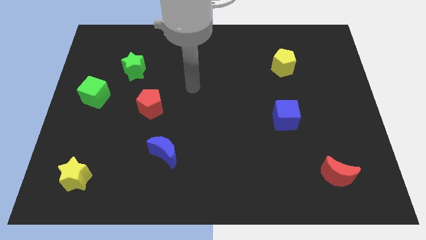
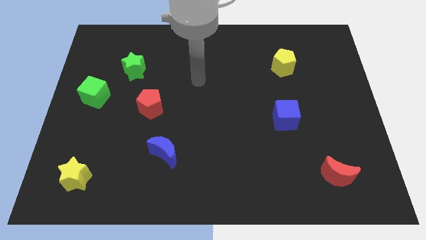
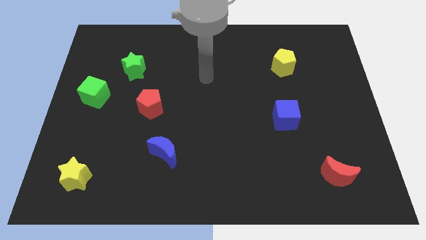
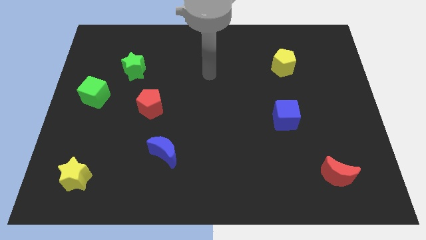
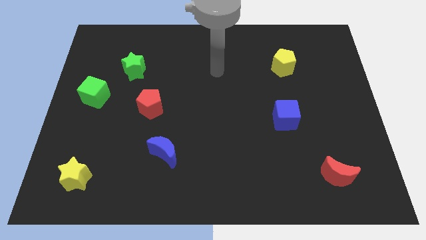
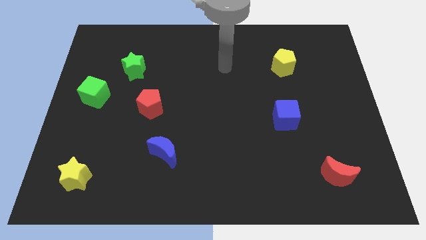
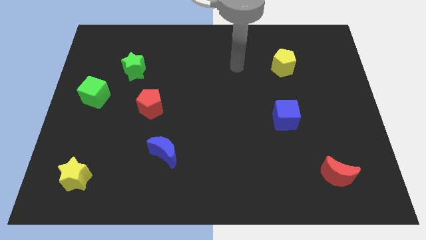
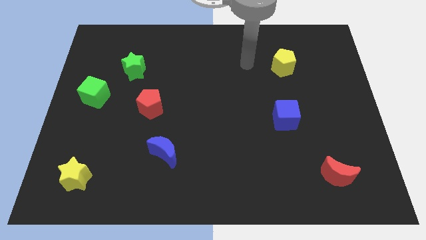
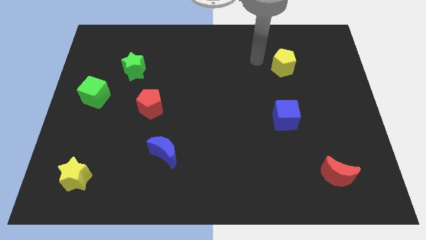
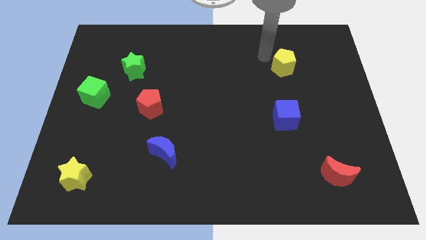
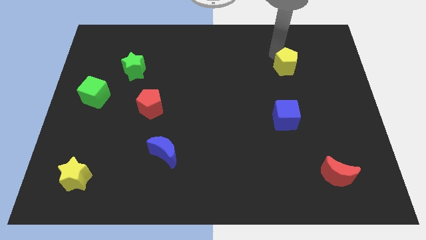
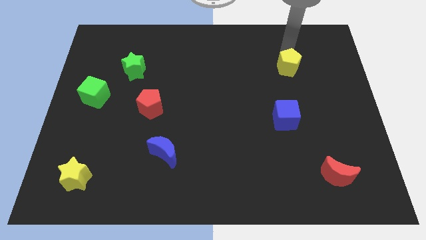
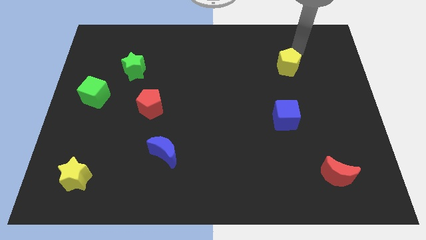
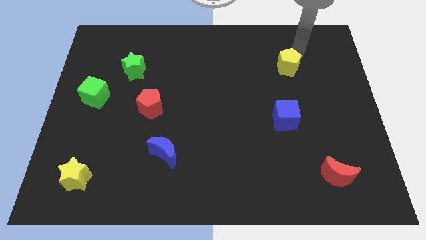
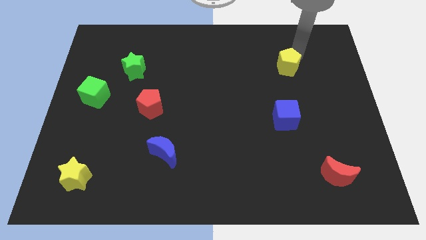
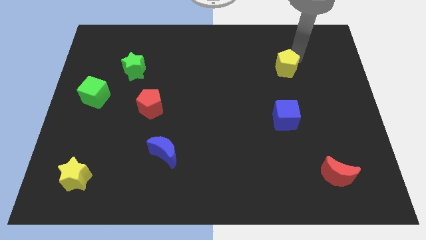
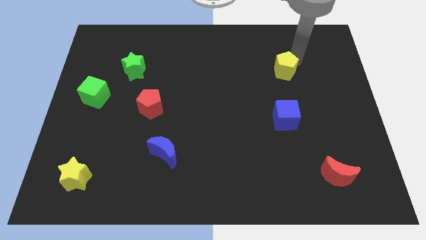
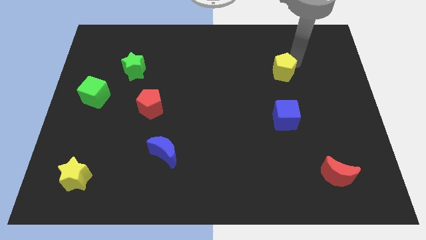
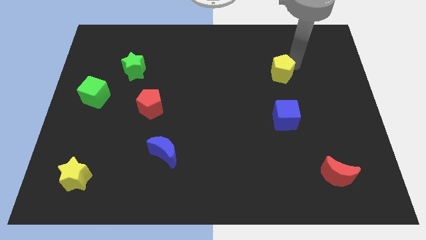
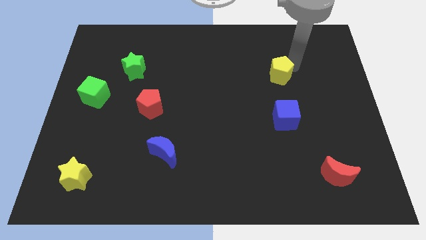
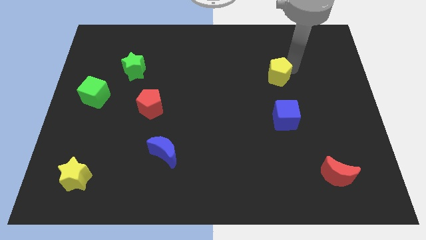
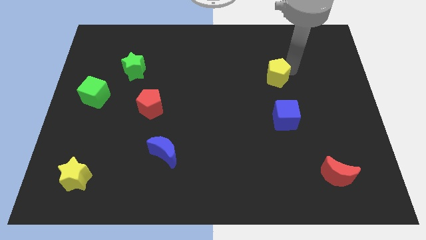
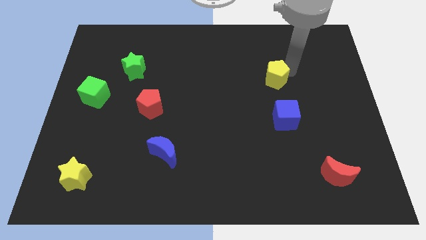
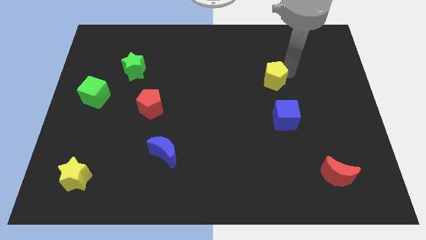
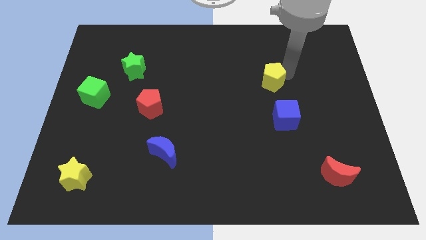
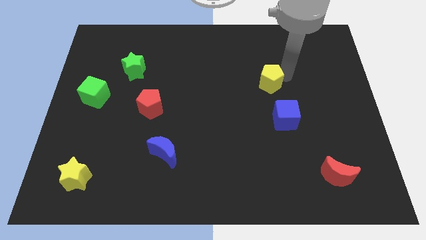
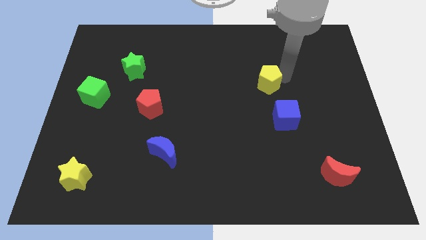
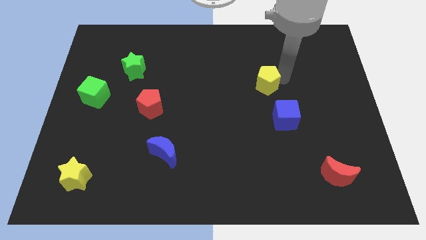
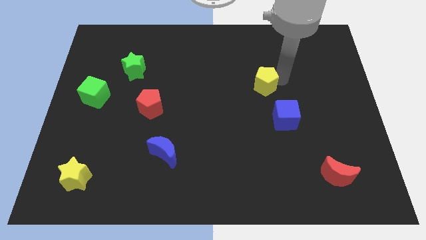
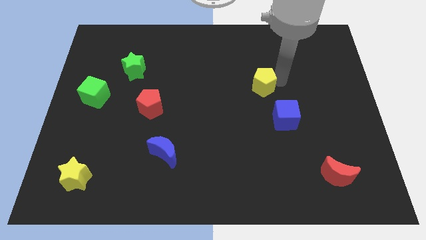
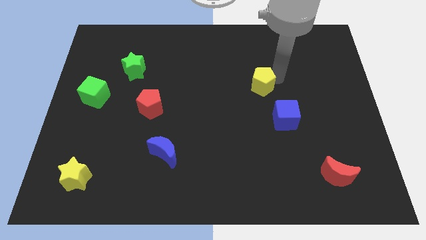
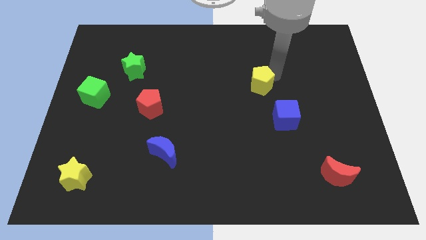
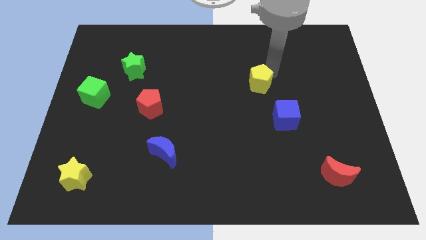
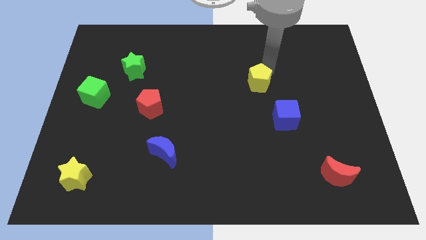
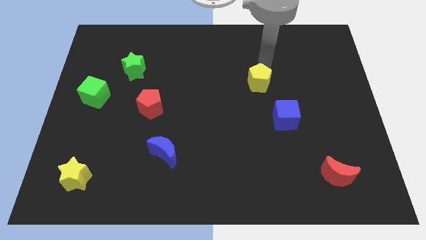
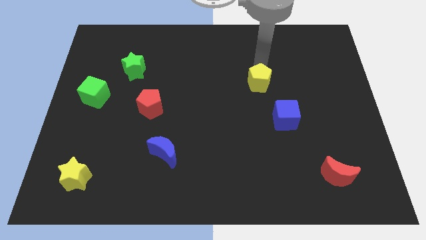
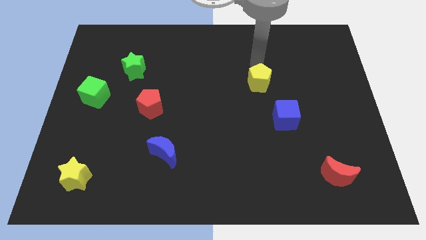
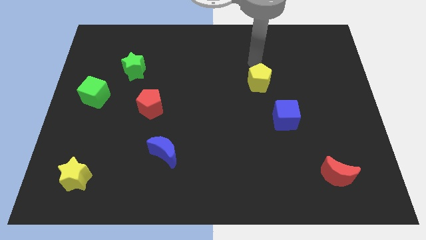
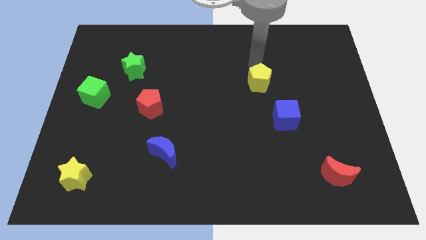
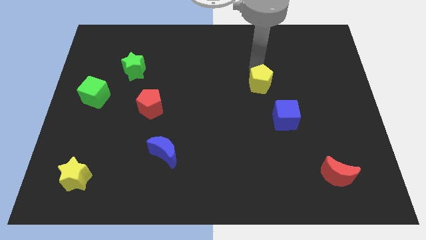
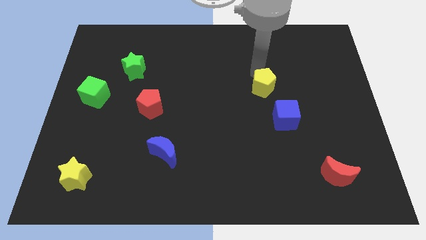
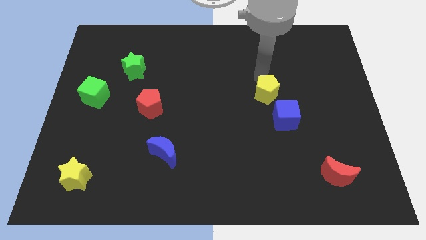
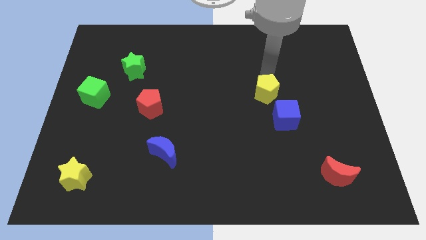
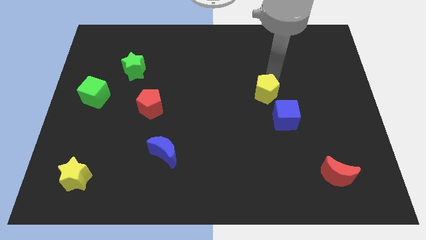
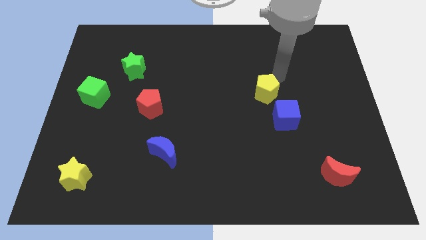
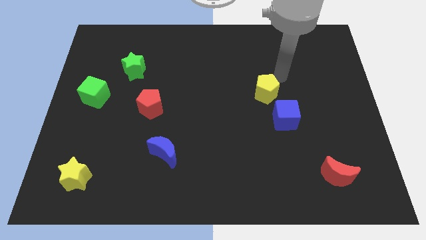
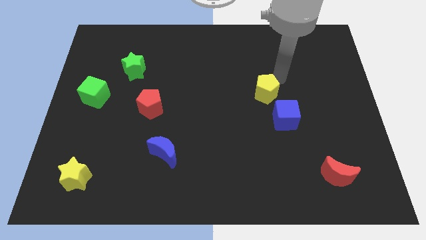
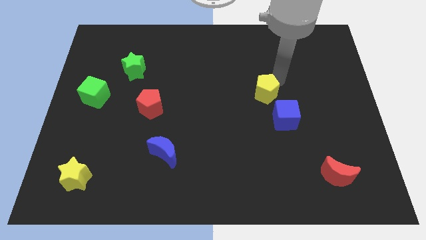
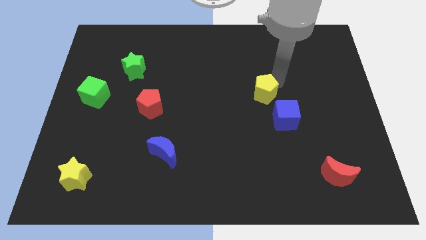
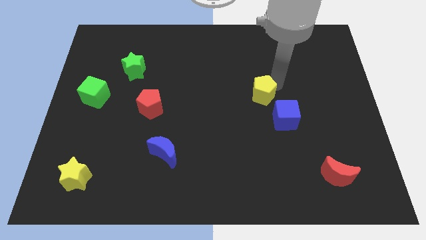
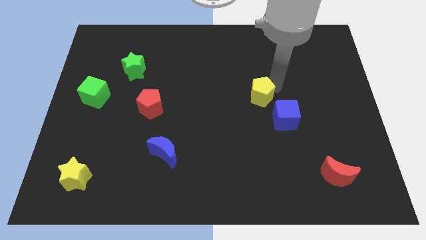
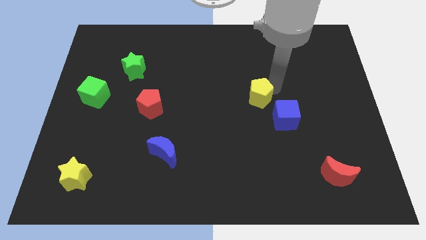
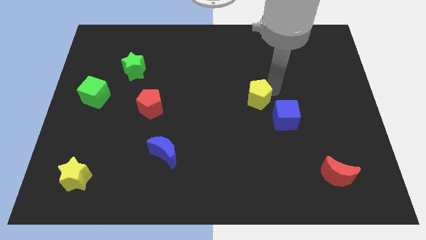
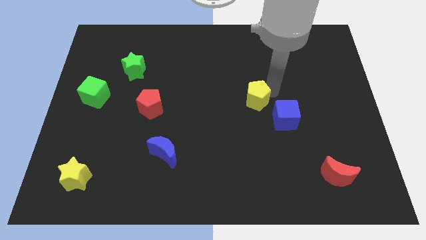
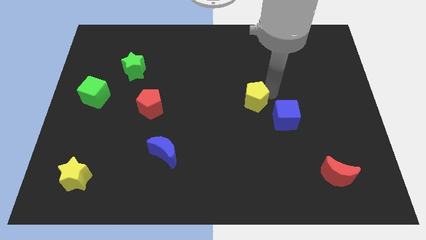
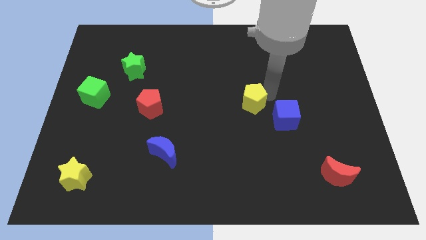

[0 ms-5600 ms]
push the yellow pentagon just left of the blue cube

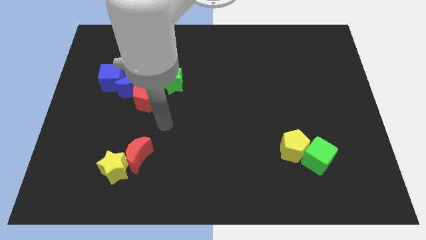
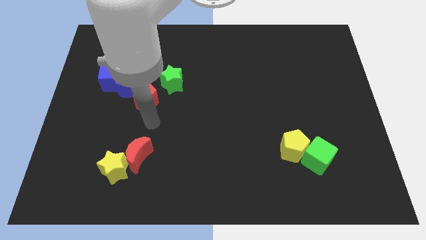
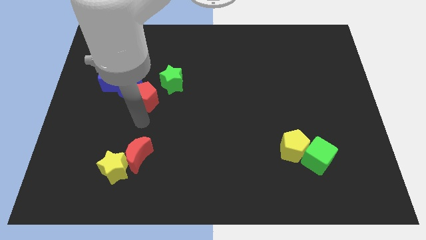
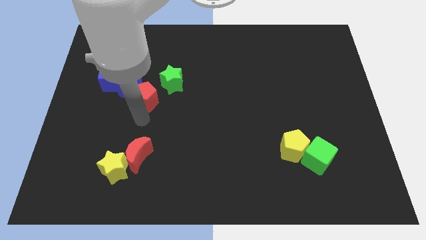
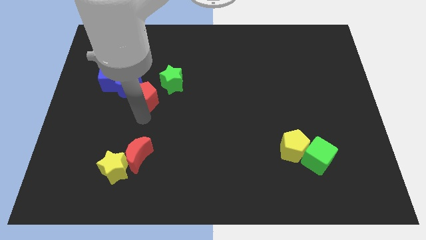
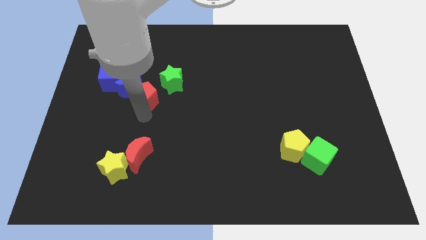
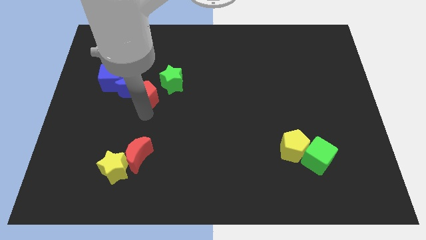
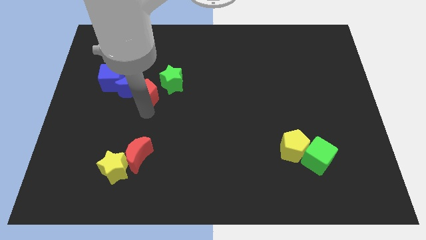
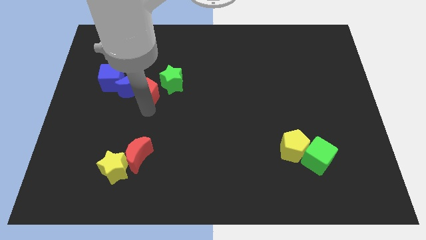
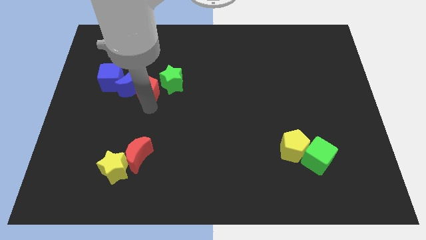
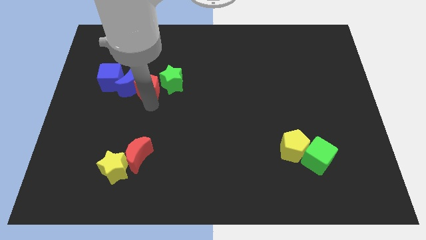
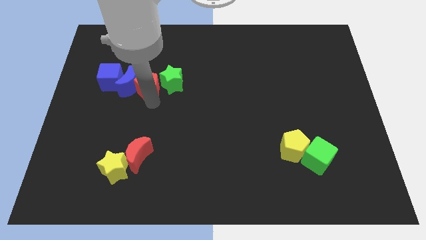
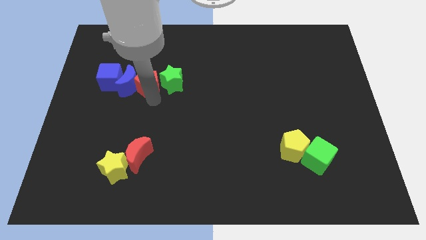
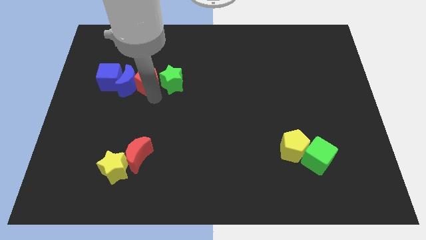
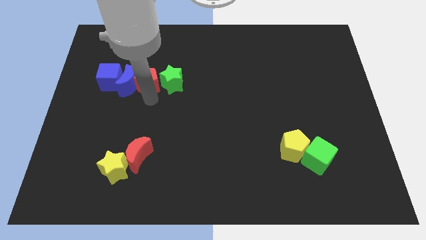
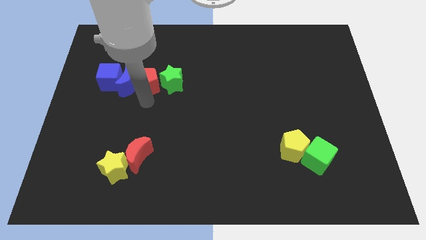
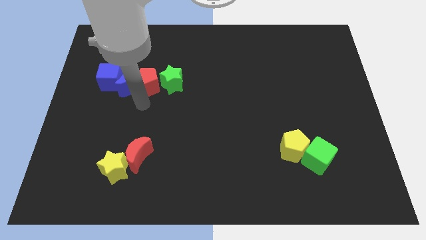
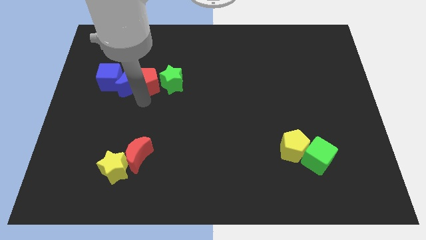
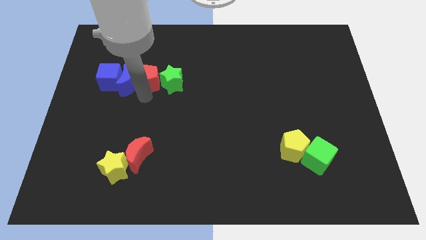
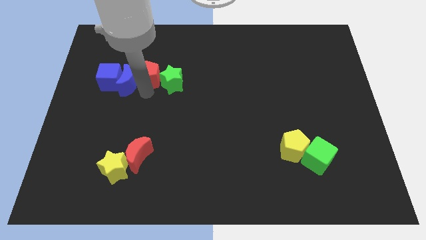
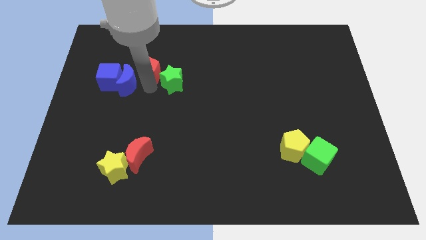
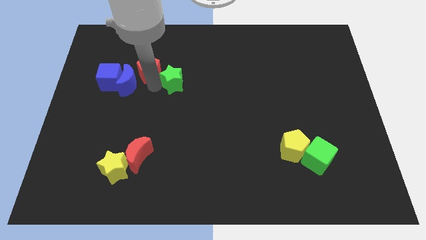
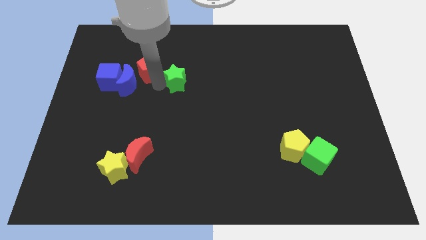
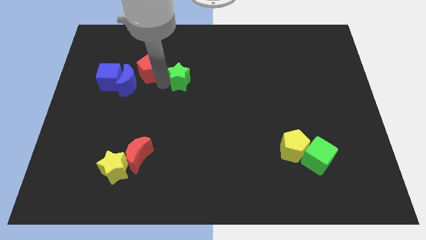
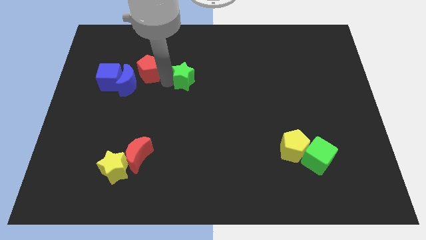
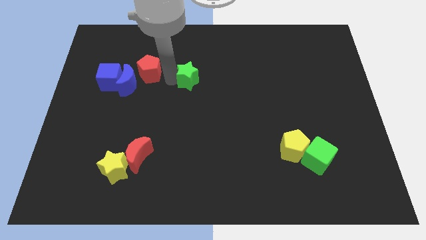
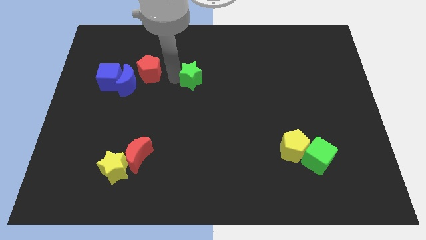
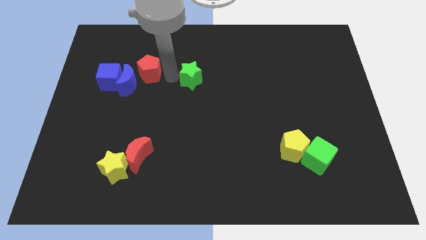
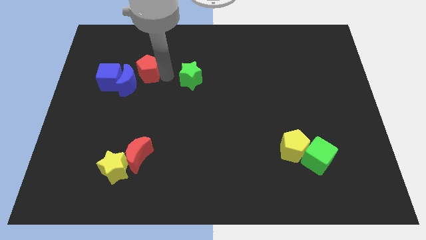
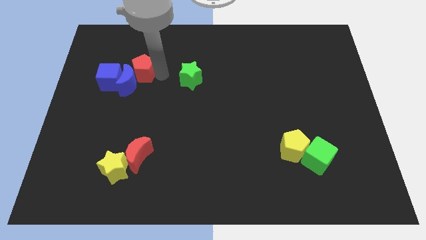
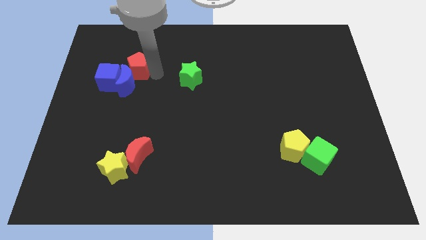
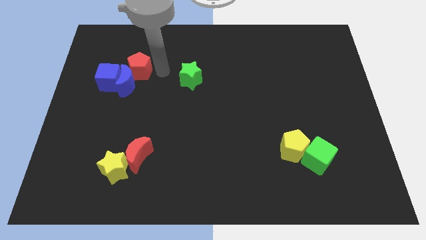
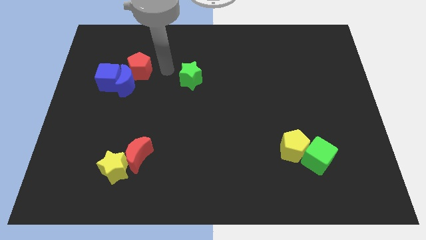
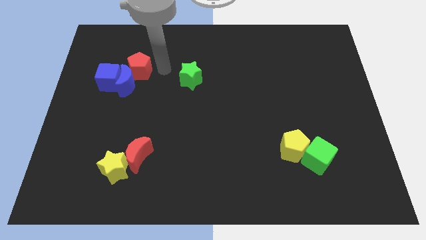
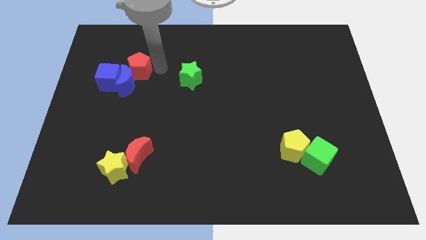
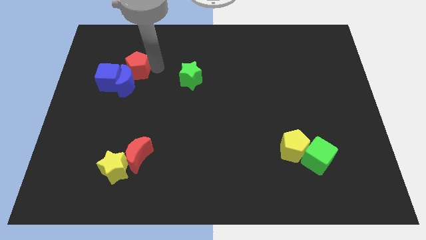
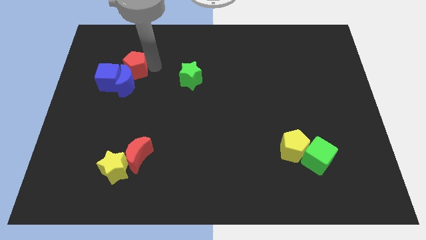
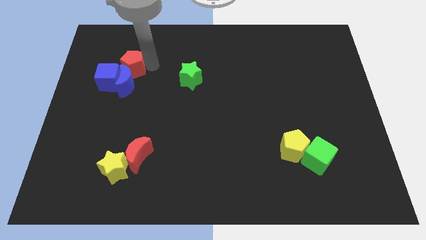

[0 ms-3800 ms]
move the red pentagon to the top left side of the blue moon
